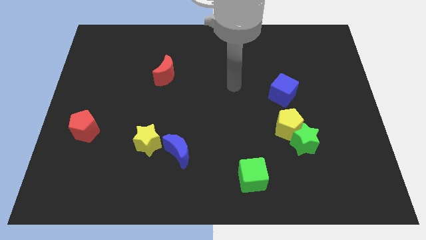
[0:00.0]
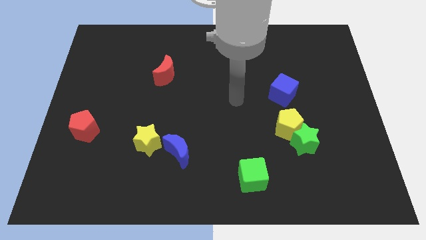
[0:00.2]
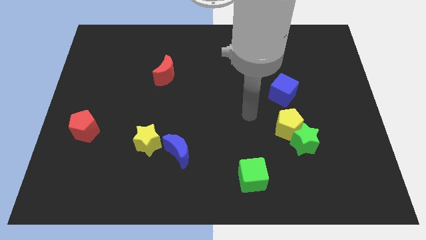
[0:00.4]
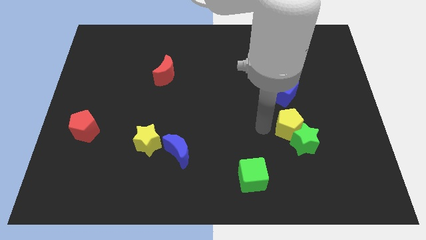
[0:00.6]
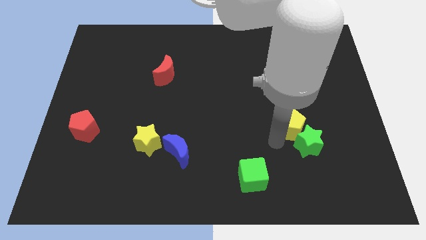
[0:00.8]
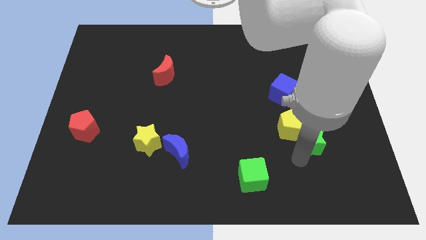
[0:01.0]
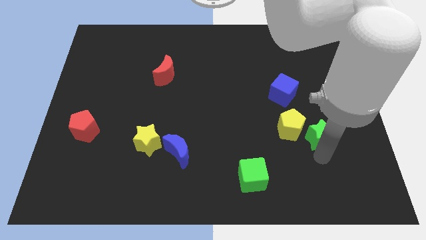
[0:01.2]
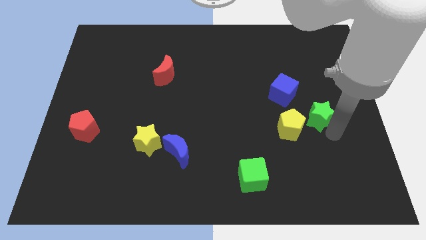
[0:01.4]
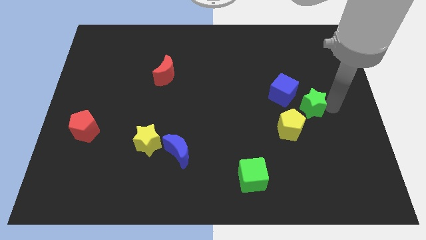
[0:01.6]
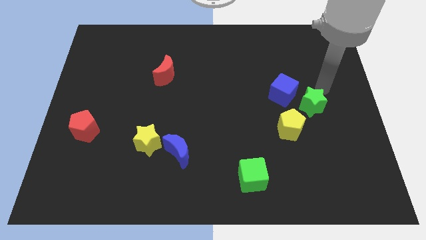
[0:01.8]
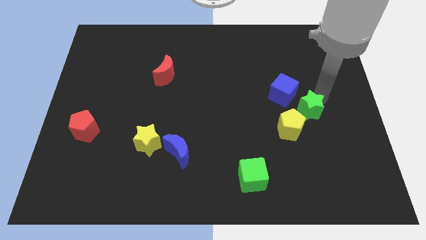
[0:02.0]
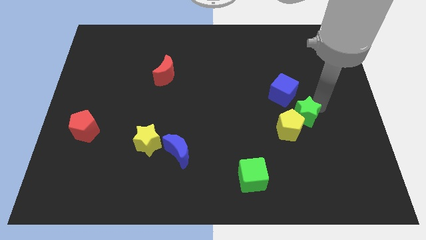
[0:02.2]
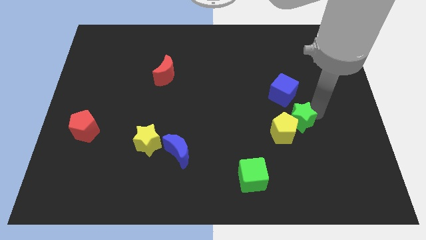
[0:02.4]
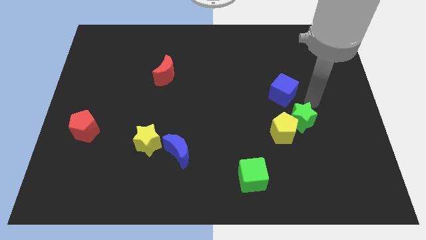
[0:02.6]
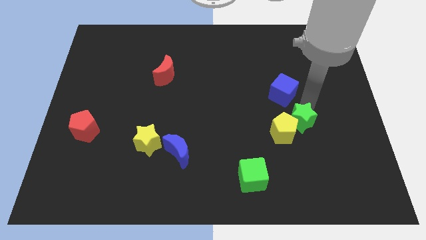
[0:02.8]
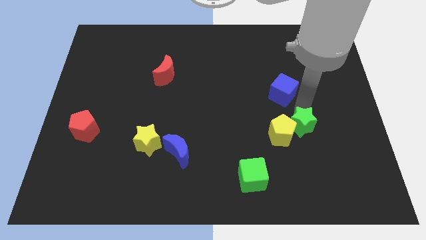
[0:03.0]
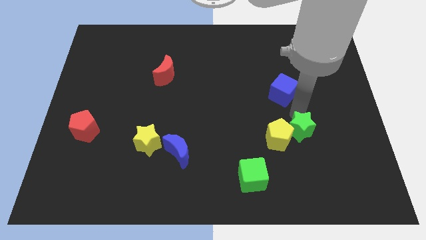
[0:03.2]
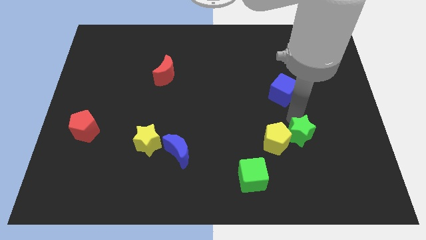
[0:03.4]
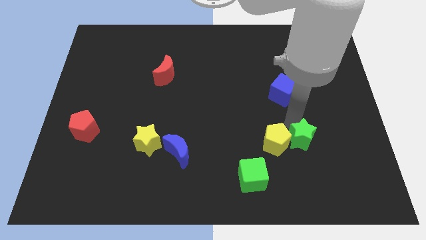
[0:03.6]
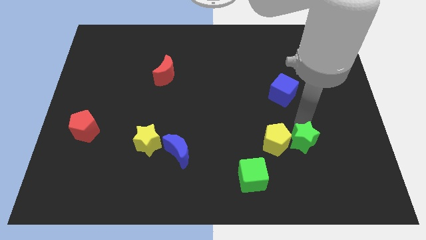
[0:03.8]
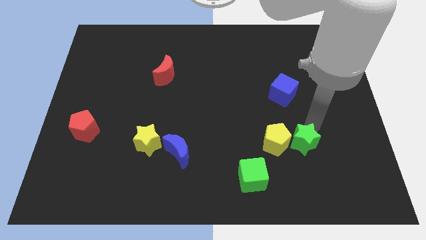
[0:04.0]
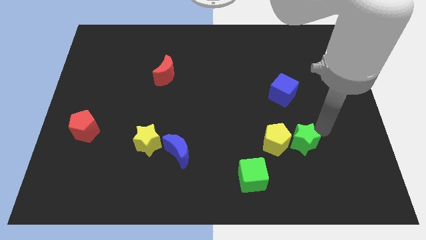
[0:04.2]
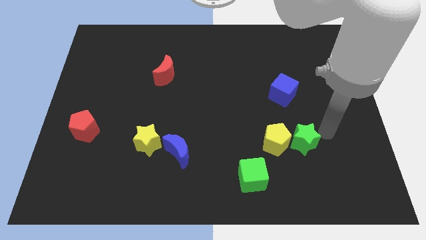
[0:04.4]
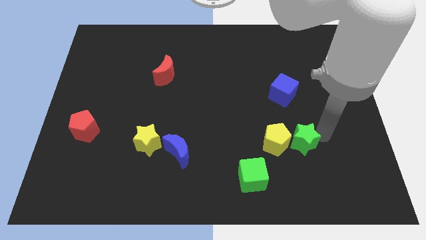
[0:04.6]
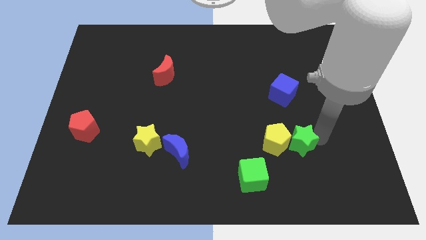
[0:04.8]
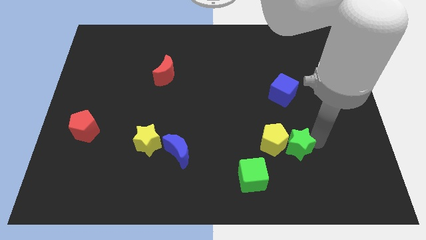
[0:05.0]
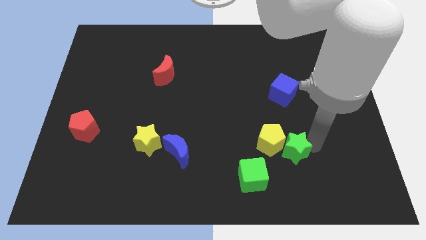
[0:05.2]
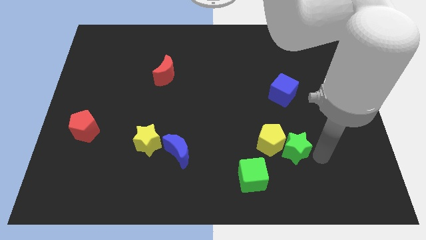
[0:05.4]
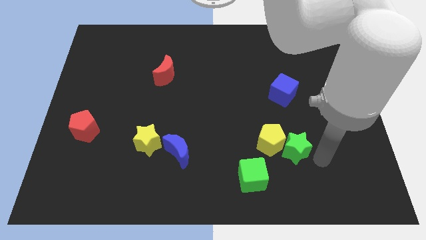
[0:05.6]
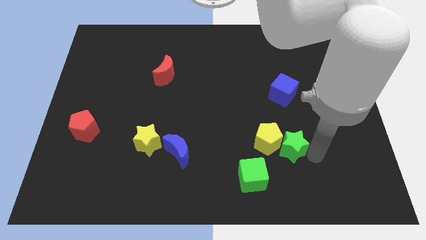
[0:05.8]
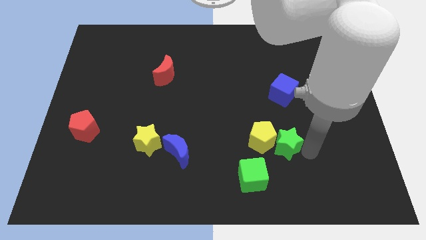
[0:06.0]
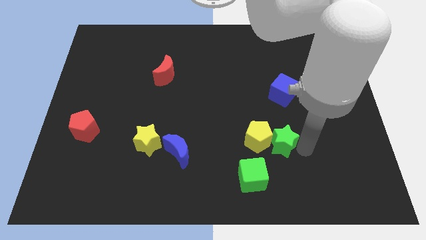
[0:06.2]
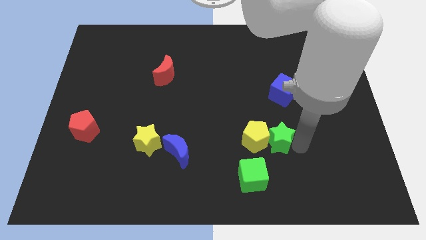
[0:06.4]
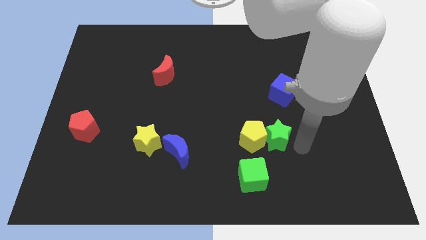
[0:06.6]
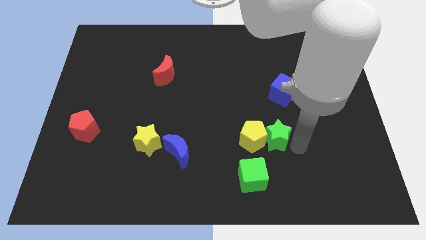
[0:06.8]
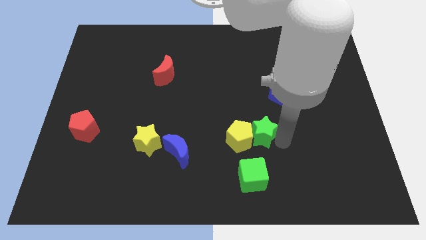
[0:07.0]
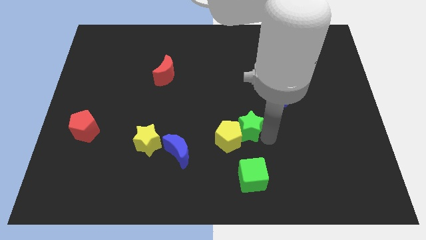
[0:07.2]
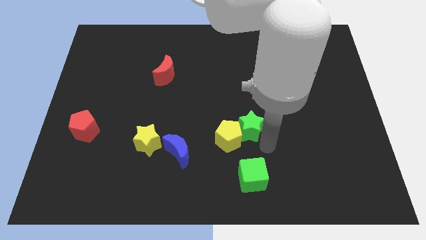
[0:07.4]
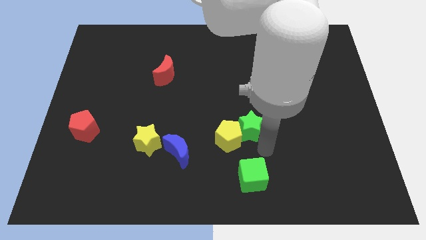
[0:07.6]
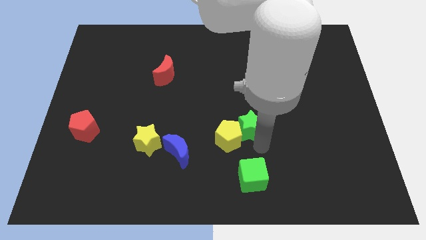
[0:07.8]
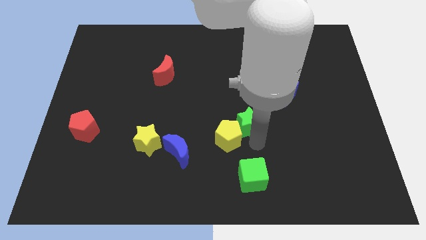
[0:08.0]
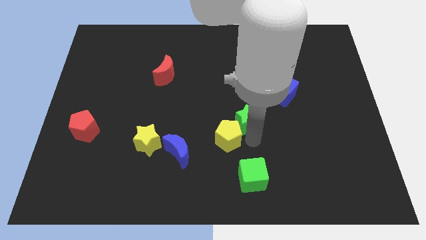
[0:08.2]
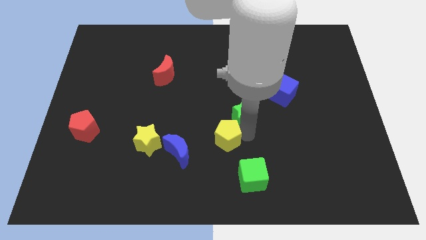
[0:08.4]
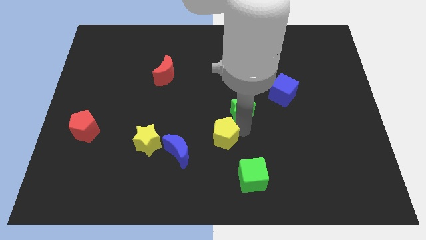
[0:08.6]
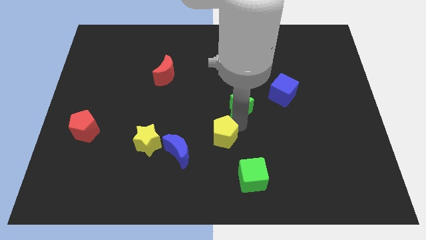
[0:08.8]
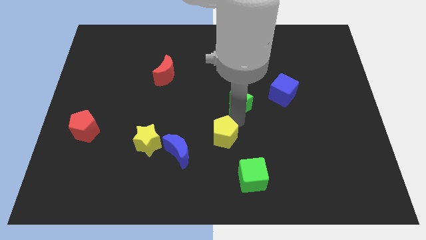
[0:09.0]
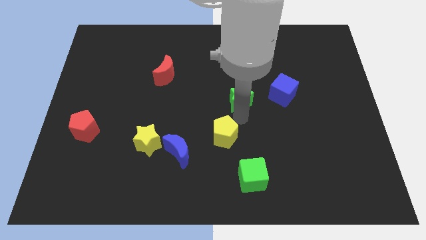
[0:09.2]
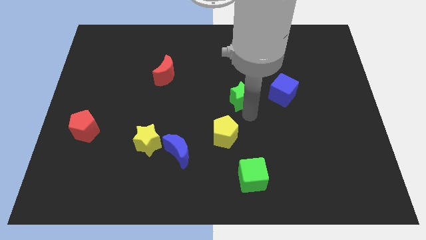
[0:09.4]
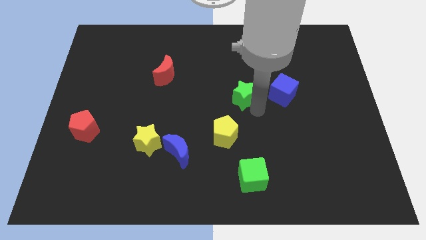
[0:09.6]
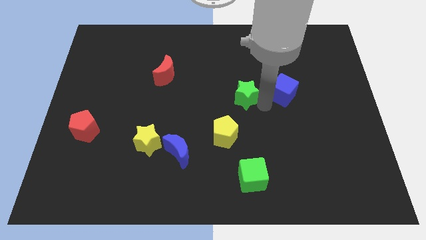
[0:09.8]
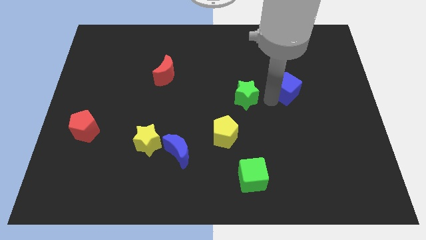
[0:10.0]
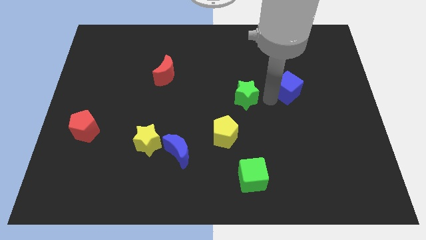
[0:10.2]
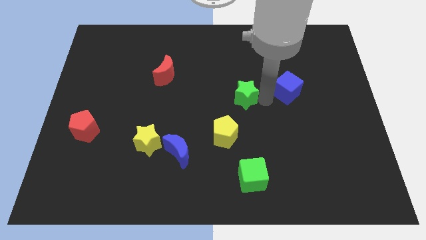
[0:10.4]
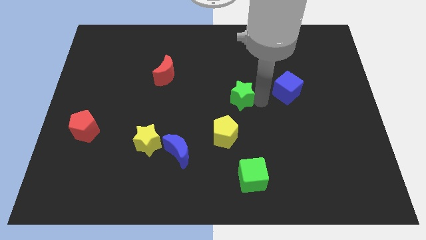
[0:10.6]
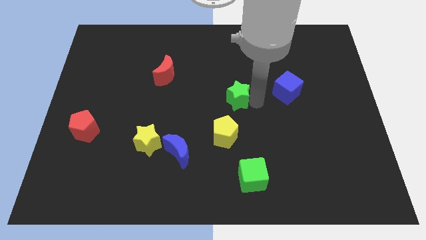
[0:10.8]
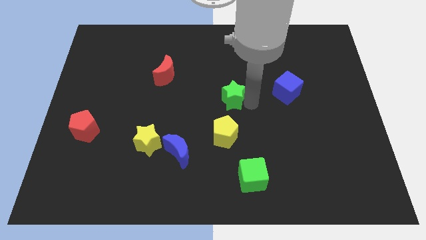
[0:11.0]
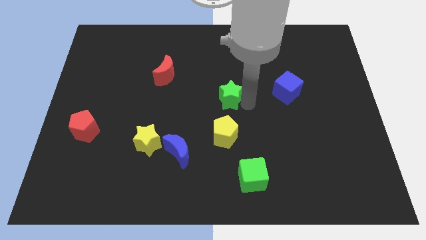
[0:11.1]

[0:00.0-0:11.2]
move the green star up and then left

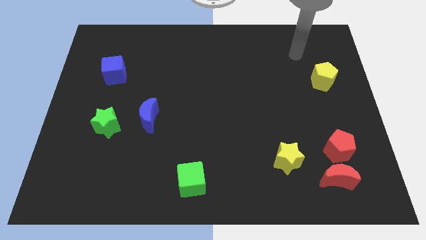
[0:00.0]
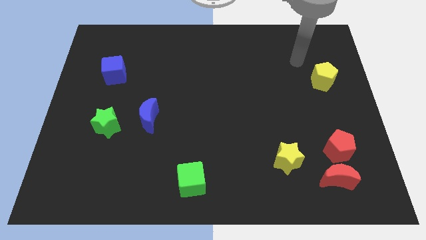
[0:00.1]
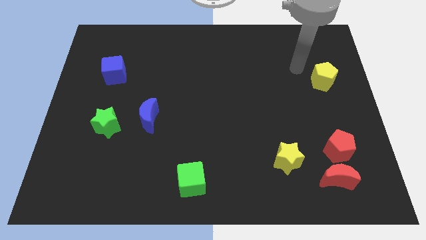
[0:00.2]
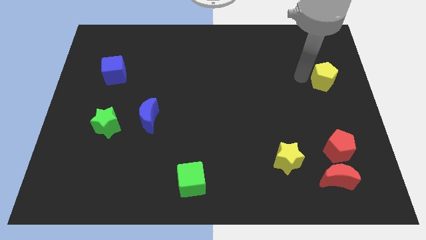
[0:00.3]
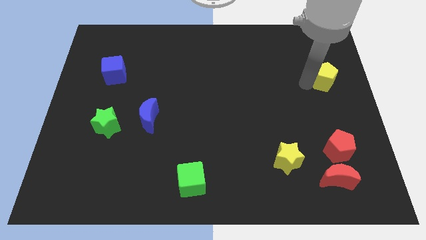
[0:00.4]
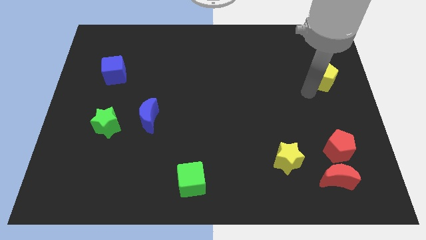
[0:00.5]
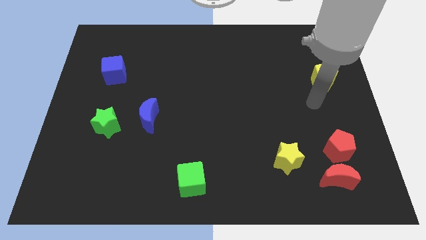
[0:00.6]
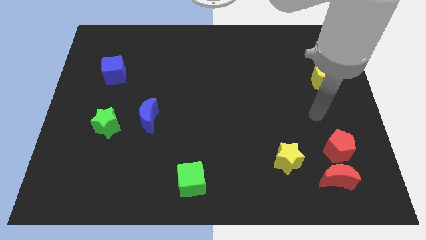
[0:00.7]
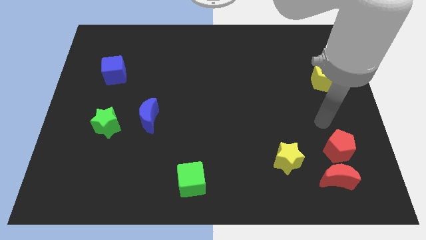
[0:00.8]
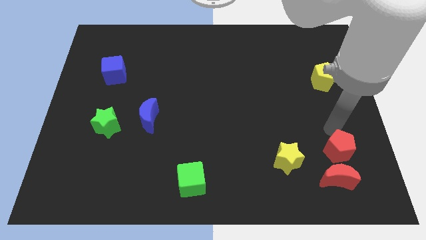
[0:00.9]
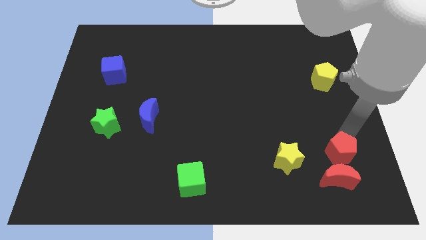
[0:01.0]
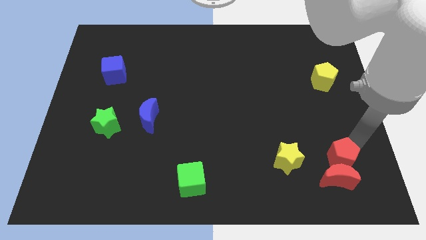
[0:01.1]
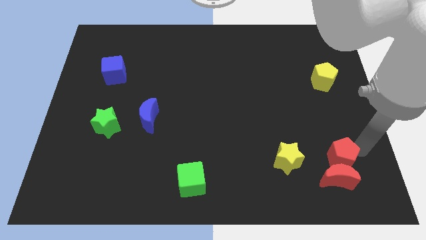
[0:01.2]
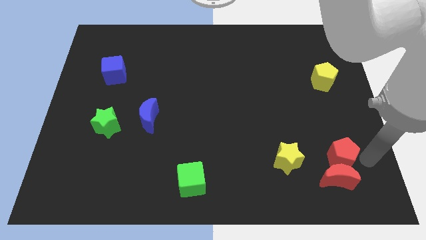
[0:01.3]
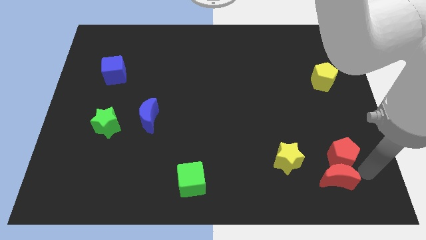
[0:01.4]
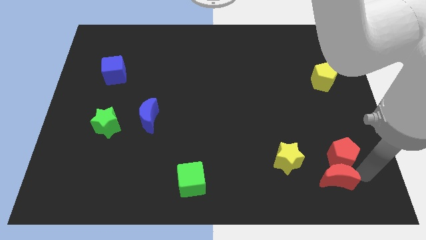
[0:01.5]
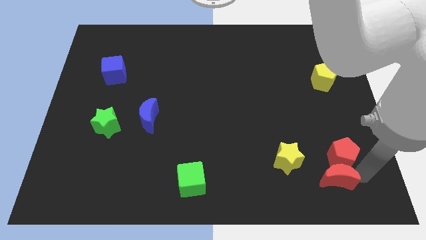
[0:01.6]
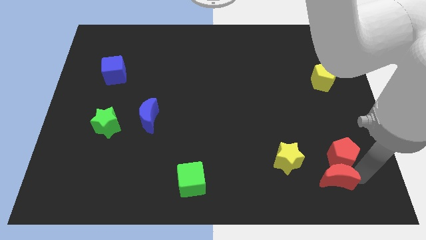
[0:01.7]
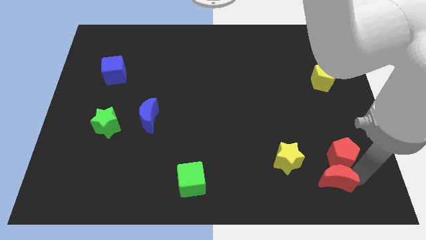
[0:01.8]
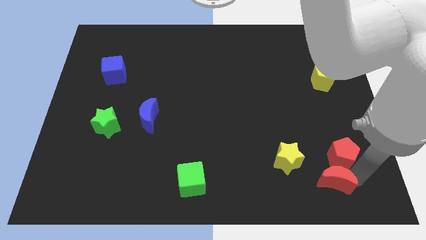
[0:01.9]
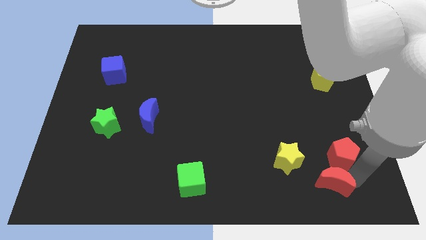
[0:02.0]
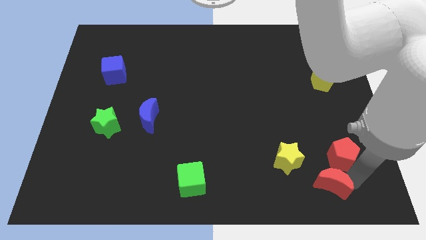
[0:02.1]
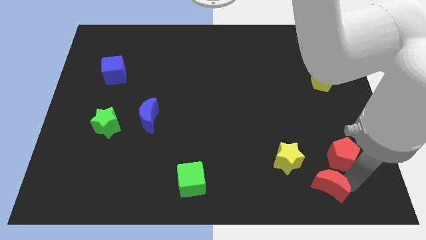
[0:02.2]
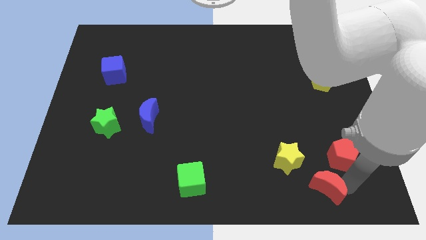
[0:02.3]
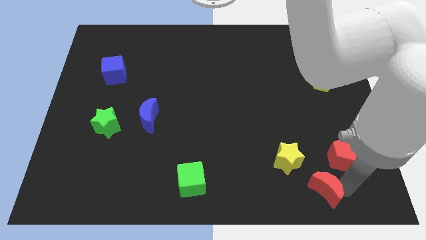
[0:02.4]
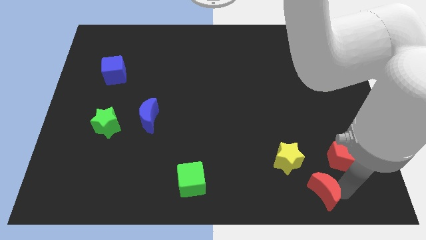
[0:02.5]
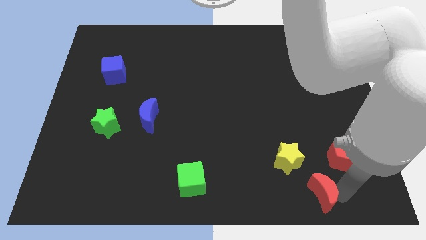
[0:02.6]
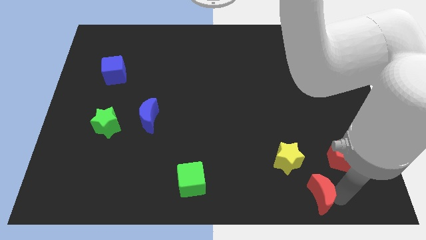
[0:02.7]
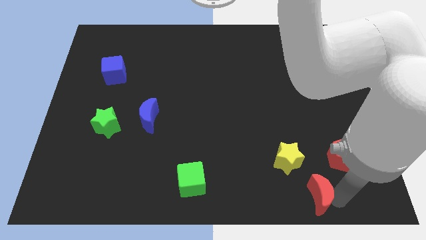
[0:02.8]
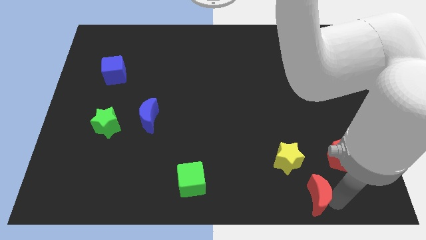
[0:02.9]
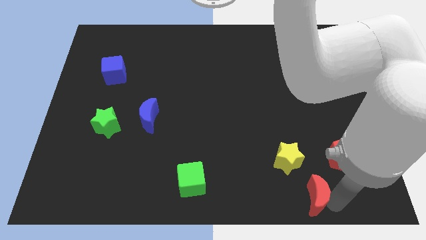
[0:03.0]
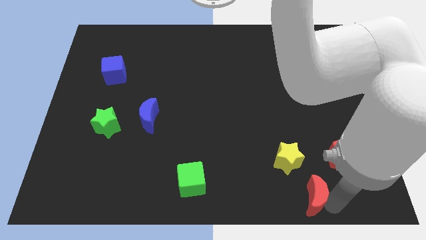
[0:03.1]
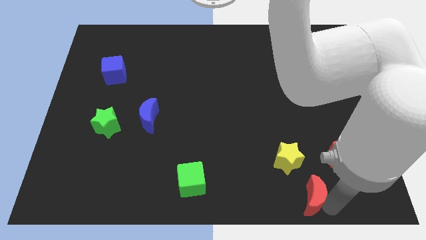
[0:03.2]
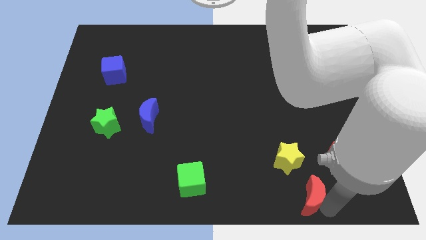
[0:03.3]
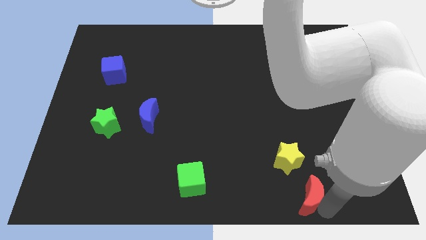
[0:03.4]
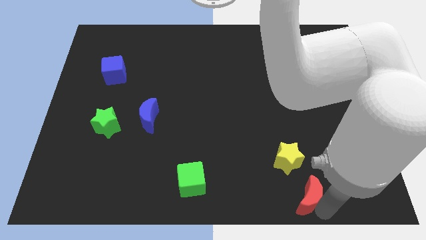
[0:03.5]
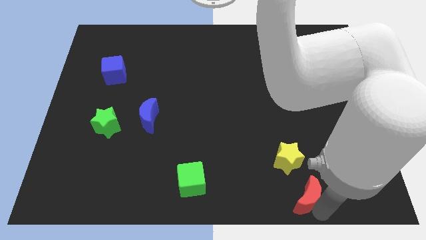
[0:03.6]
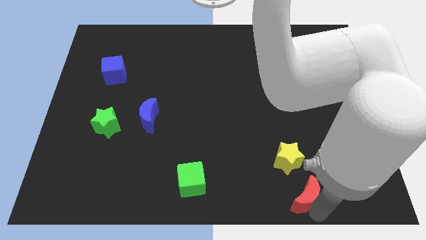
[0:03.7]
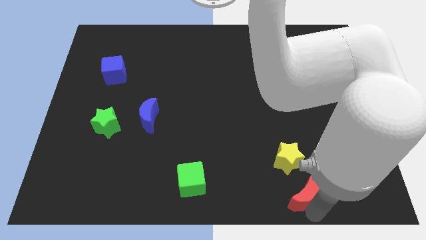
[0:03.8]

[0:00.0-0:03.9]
slide the red moon slightly to the left
